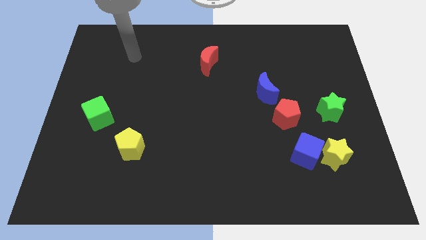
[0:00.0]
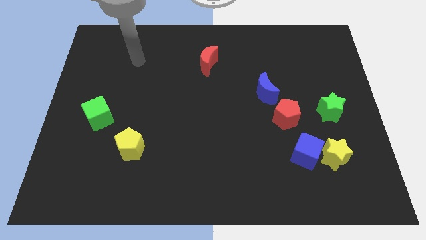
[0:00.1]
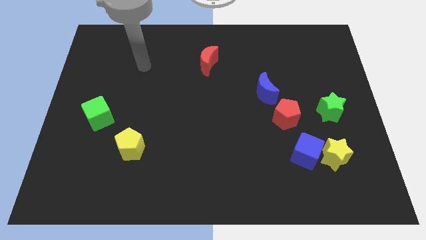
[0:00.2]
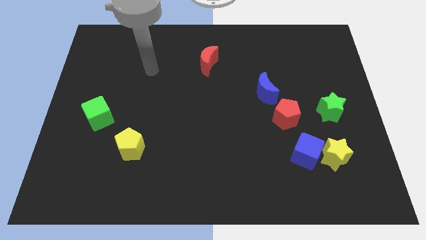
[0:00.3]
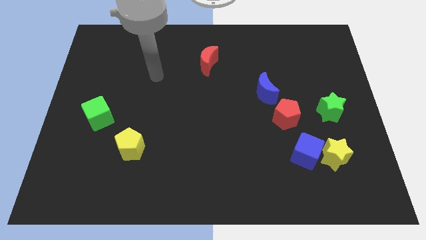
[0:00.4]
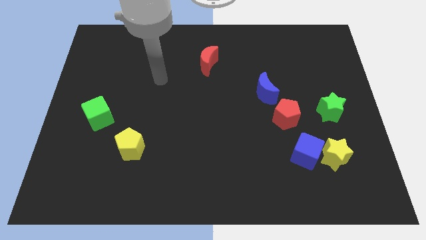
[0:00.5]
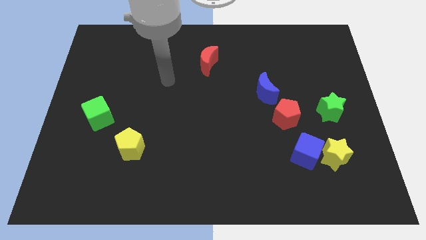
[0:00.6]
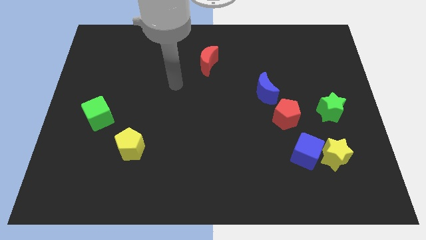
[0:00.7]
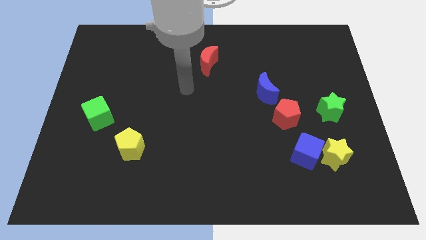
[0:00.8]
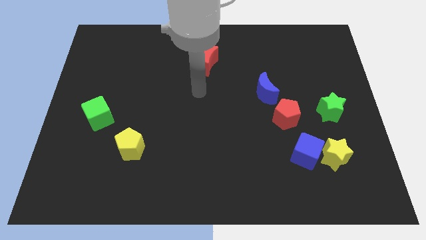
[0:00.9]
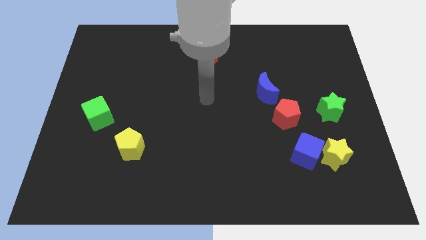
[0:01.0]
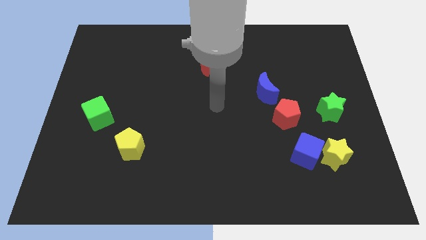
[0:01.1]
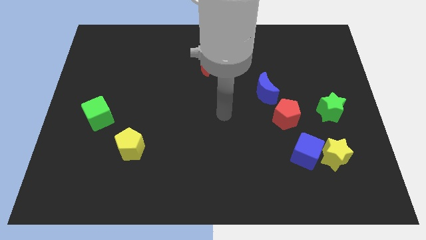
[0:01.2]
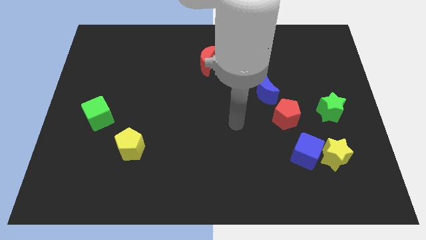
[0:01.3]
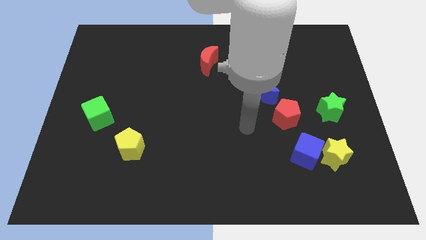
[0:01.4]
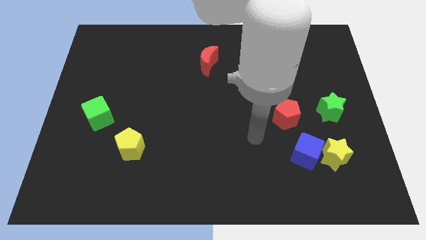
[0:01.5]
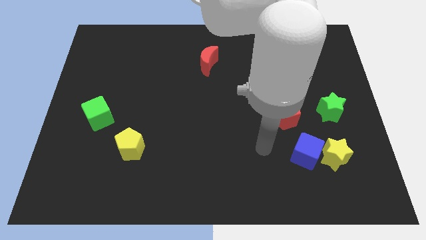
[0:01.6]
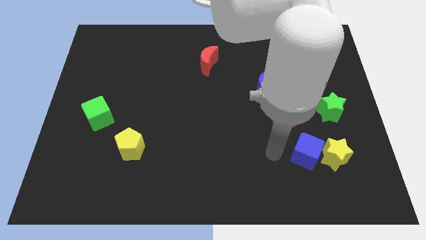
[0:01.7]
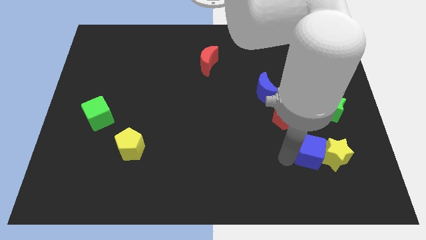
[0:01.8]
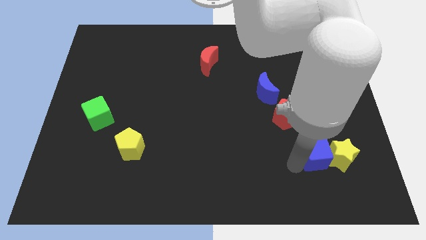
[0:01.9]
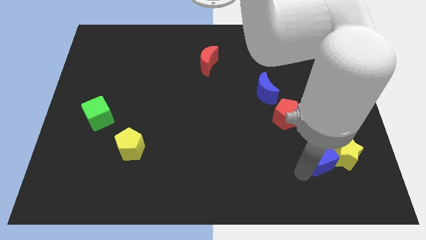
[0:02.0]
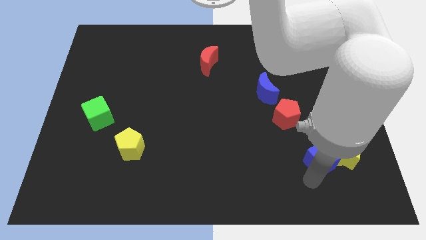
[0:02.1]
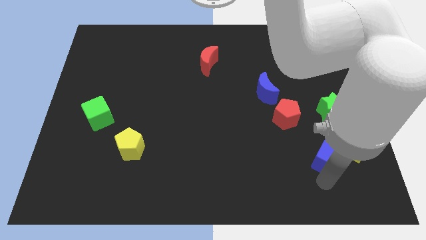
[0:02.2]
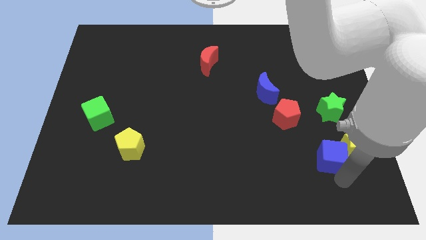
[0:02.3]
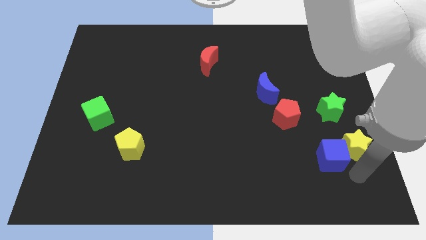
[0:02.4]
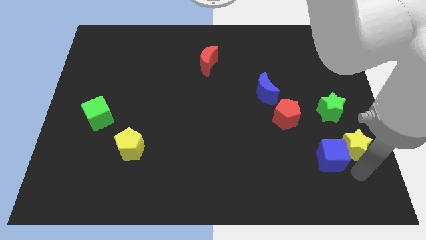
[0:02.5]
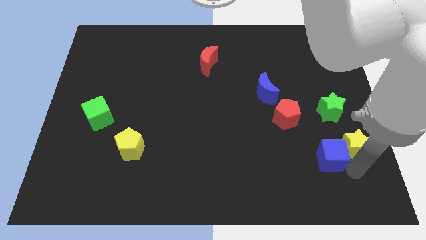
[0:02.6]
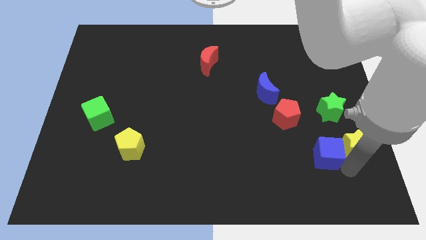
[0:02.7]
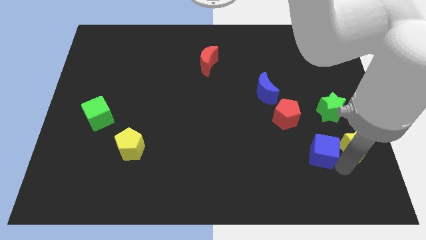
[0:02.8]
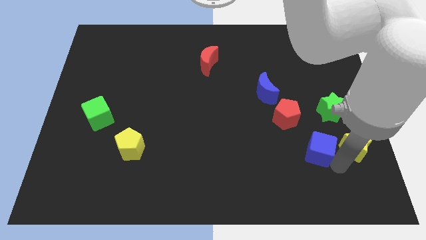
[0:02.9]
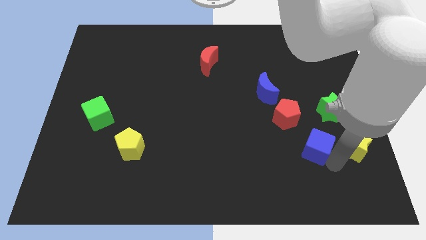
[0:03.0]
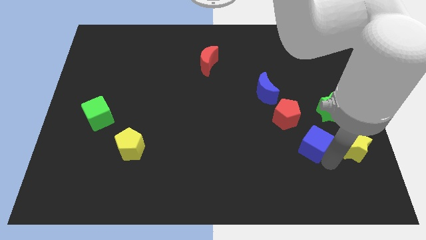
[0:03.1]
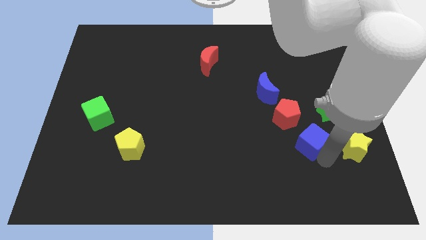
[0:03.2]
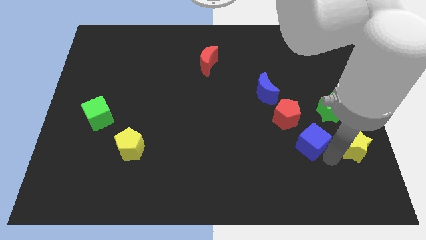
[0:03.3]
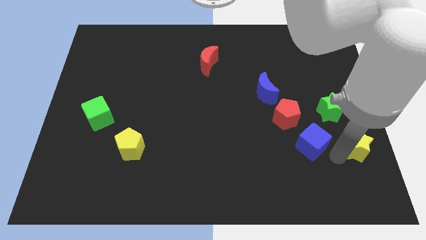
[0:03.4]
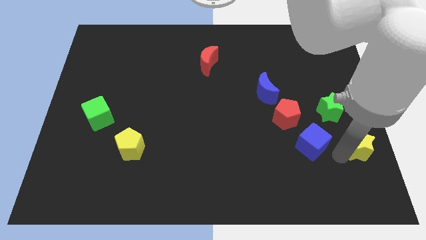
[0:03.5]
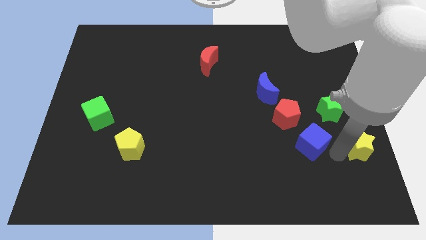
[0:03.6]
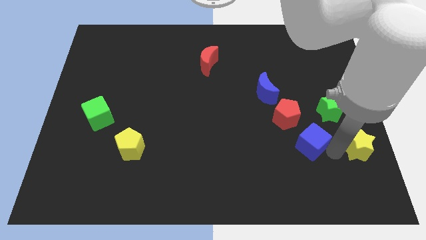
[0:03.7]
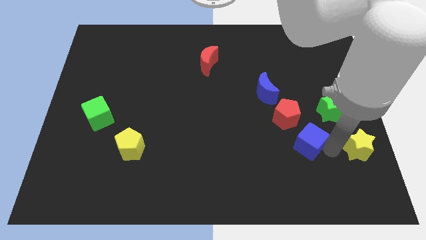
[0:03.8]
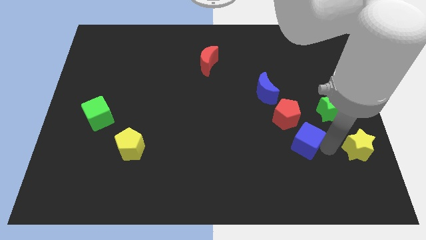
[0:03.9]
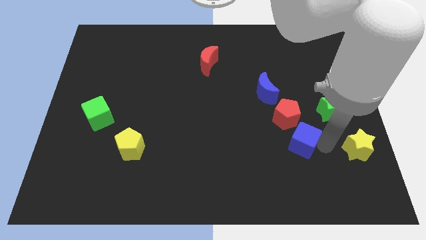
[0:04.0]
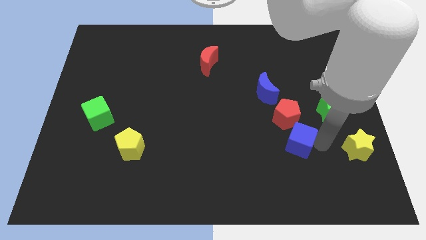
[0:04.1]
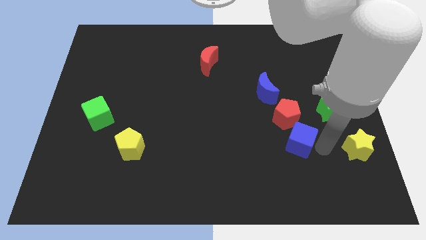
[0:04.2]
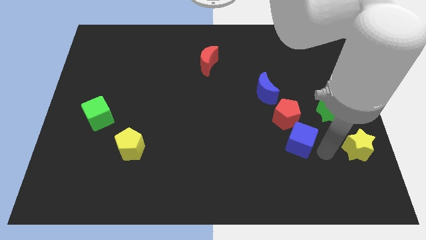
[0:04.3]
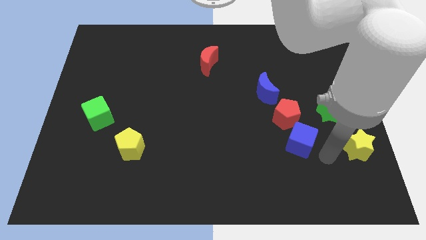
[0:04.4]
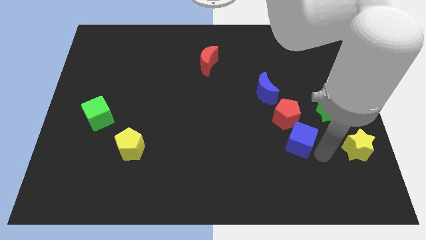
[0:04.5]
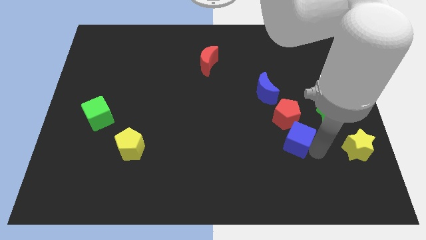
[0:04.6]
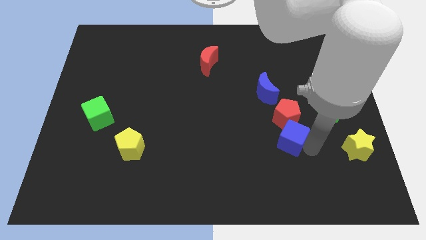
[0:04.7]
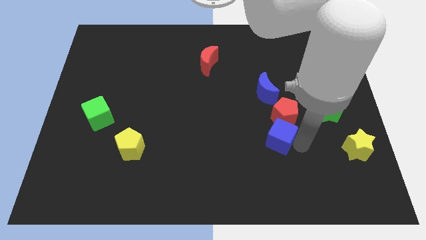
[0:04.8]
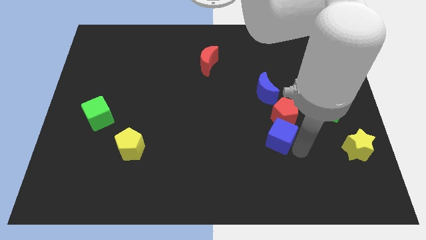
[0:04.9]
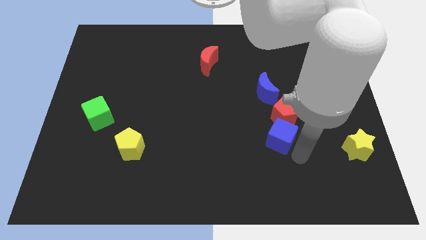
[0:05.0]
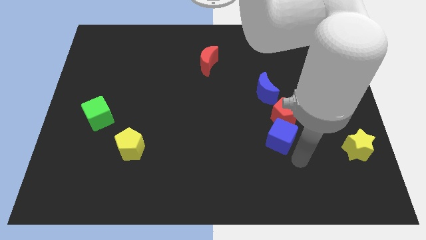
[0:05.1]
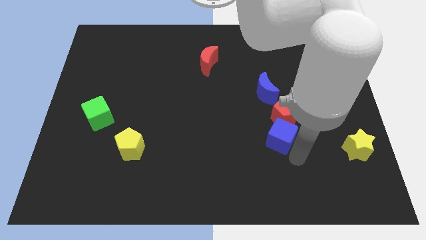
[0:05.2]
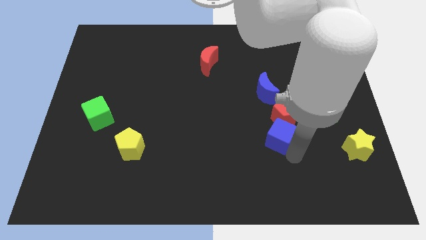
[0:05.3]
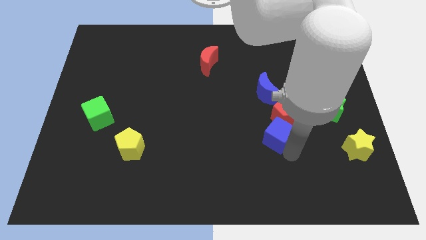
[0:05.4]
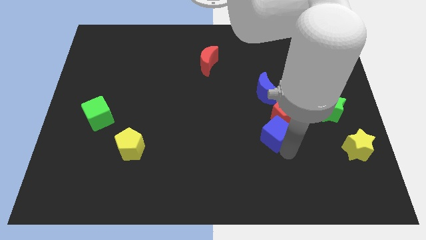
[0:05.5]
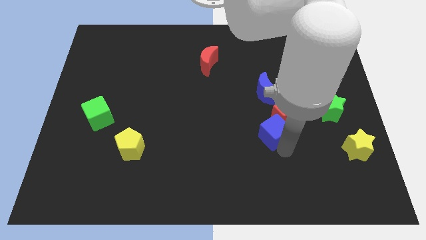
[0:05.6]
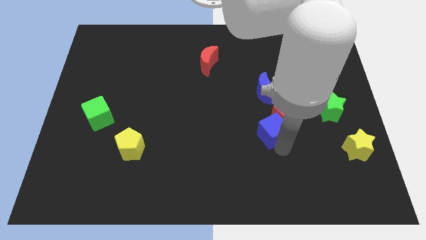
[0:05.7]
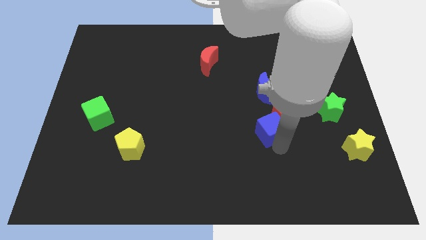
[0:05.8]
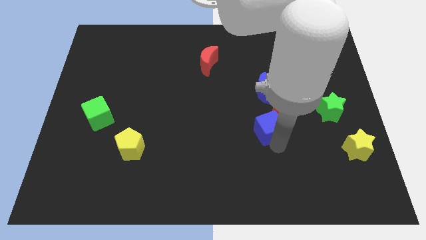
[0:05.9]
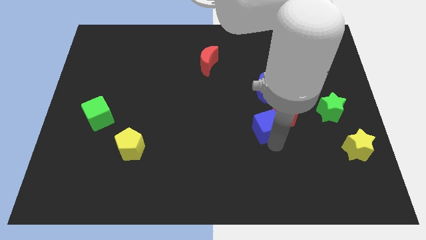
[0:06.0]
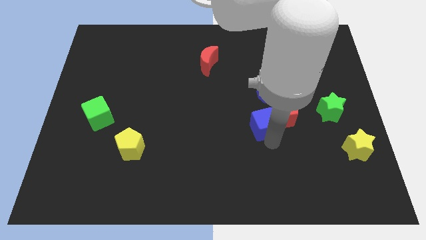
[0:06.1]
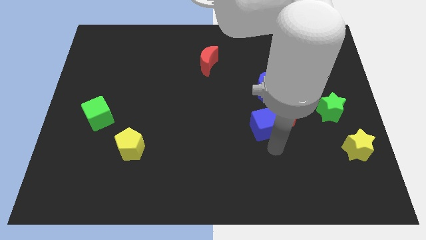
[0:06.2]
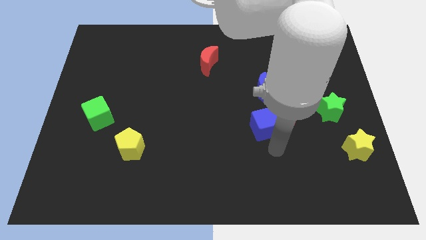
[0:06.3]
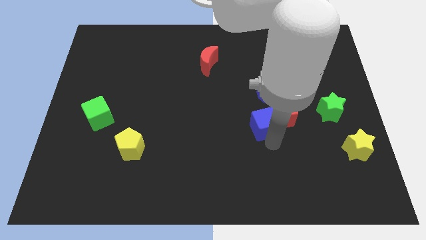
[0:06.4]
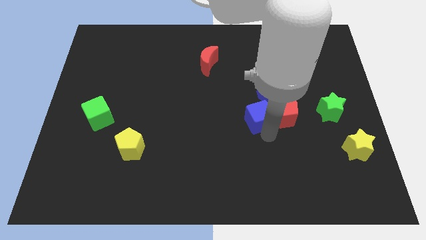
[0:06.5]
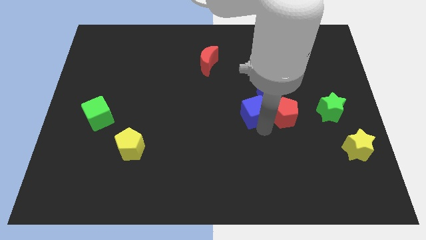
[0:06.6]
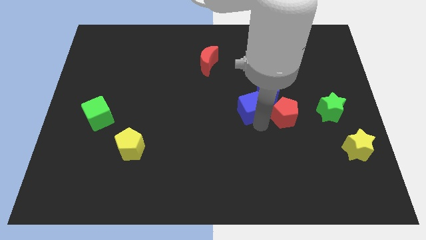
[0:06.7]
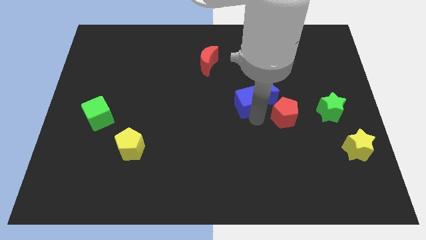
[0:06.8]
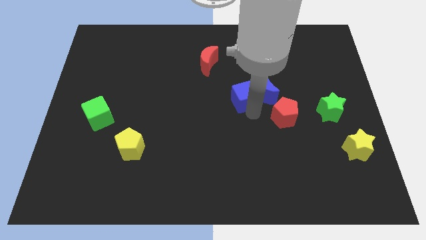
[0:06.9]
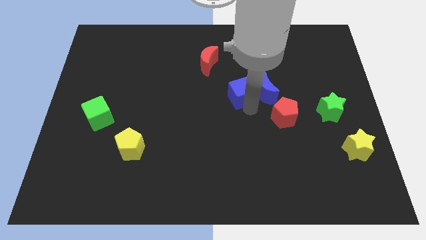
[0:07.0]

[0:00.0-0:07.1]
slide the blue cube upwards and left

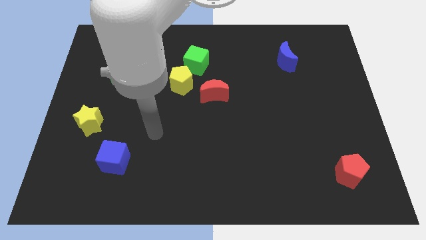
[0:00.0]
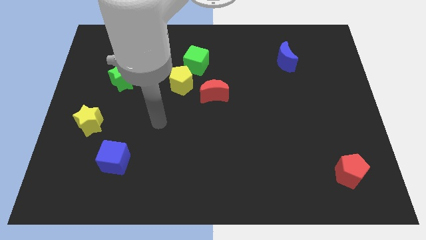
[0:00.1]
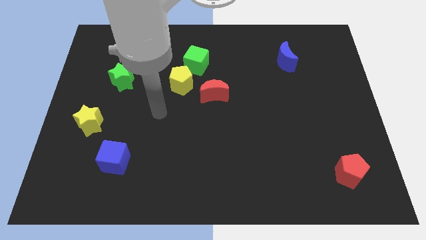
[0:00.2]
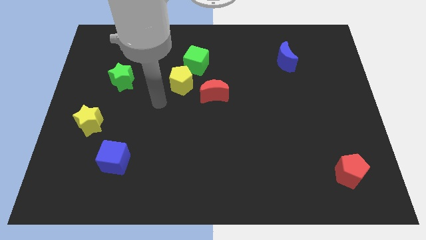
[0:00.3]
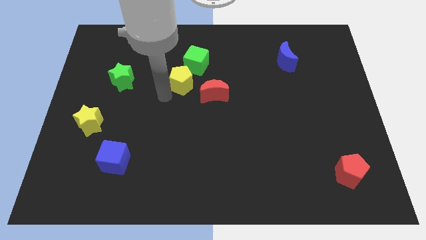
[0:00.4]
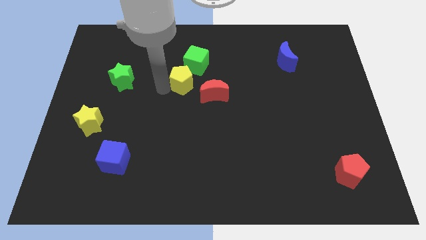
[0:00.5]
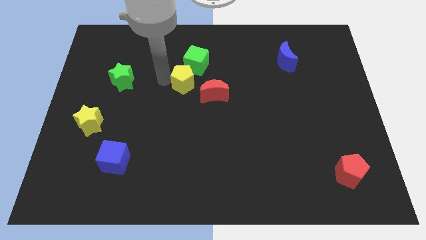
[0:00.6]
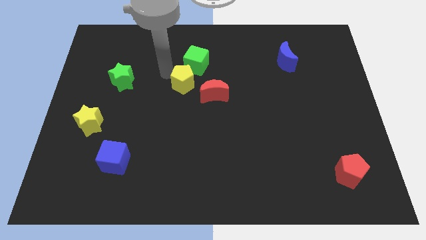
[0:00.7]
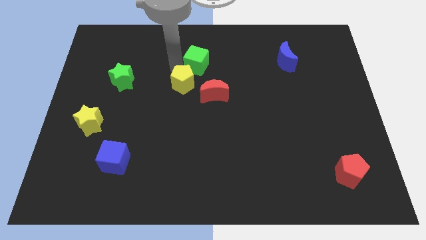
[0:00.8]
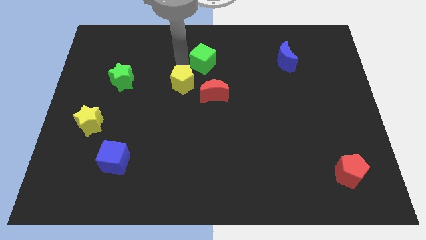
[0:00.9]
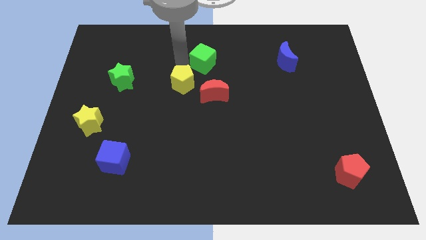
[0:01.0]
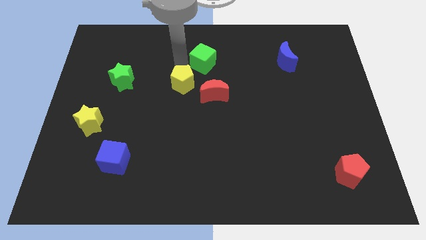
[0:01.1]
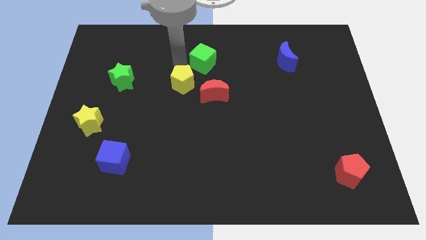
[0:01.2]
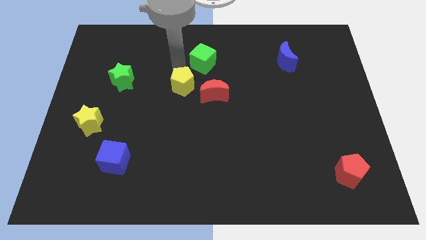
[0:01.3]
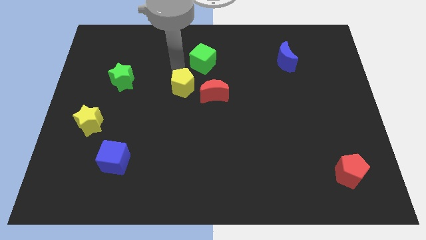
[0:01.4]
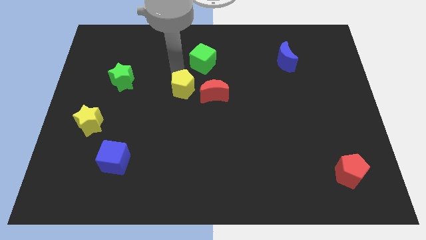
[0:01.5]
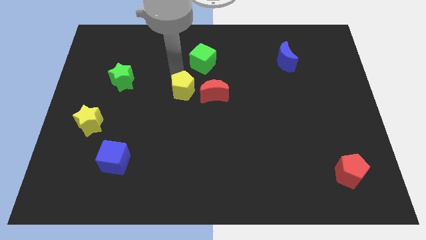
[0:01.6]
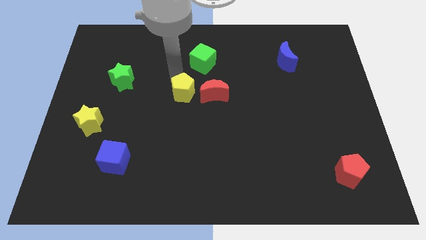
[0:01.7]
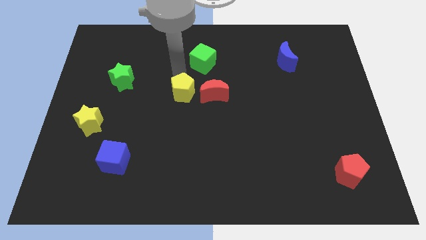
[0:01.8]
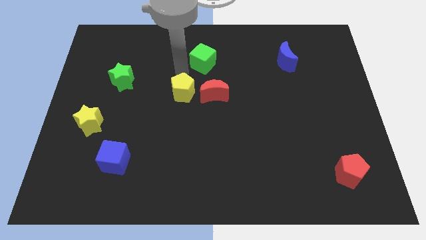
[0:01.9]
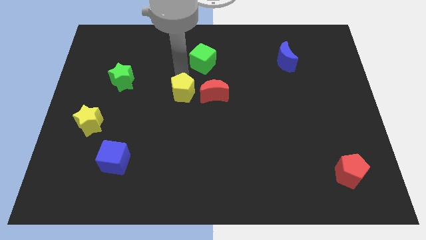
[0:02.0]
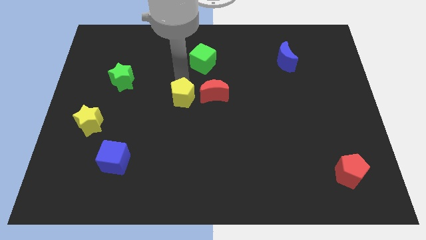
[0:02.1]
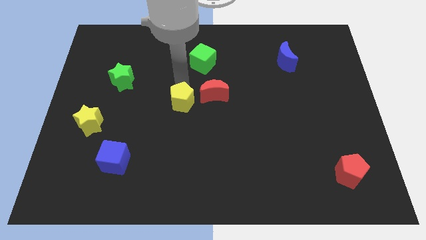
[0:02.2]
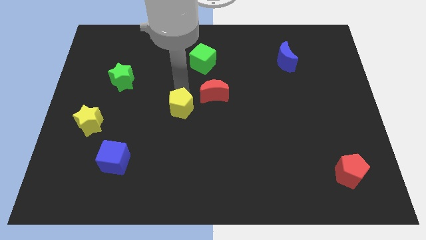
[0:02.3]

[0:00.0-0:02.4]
push the yellow pentagon down a little bit
